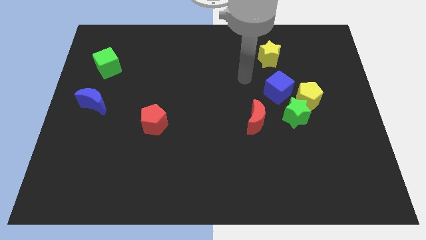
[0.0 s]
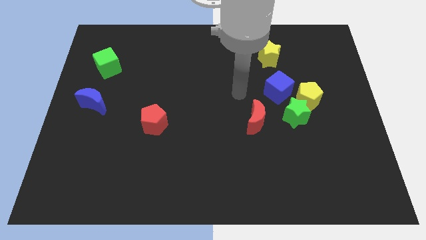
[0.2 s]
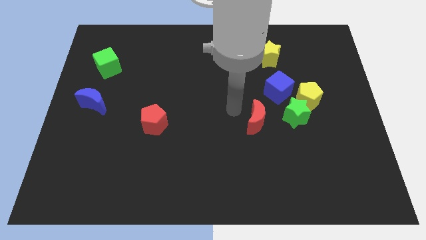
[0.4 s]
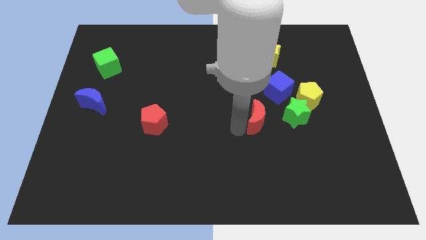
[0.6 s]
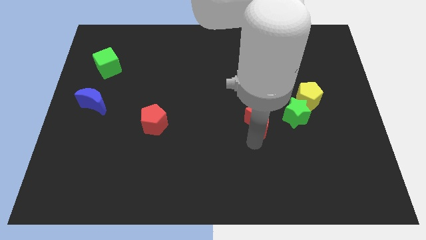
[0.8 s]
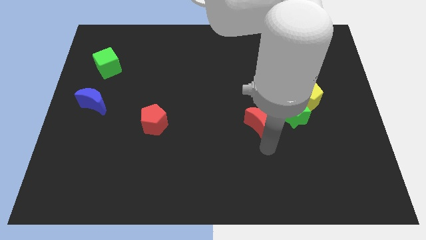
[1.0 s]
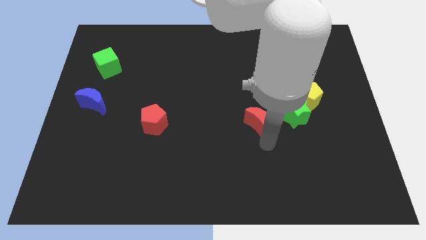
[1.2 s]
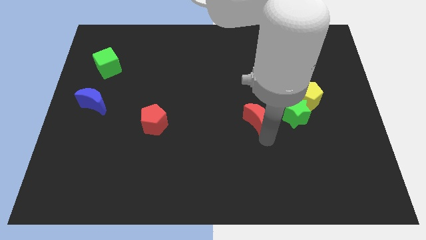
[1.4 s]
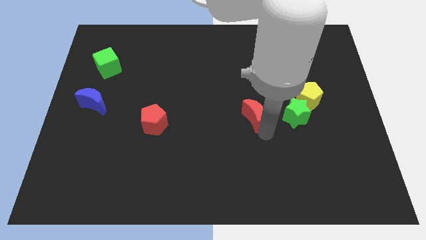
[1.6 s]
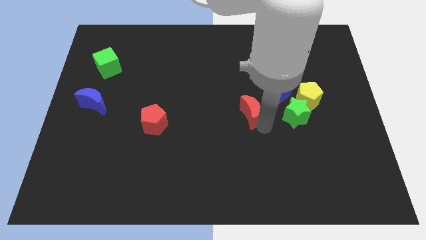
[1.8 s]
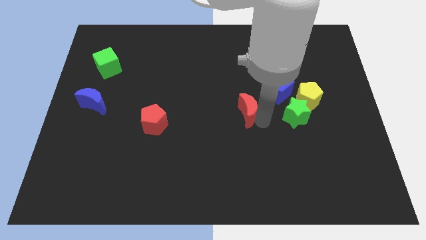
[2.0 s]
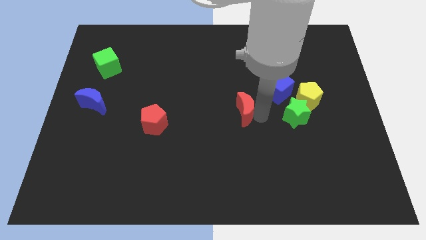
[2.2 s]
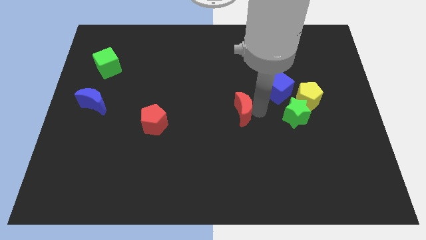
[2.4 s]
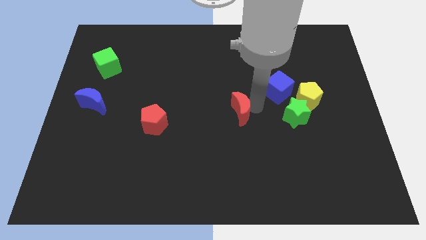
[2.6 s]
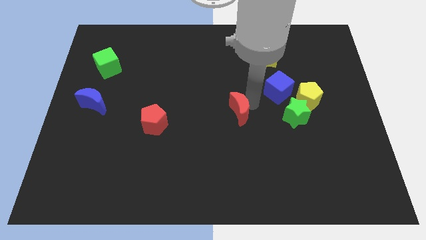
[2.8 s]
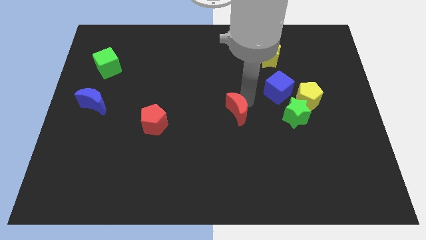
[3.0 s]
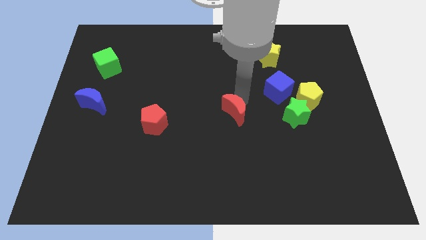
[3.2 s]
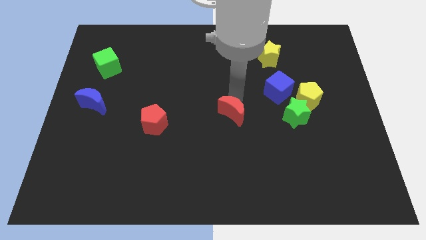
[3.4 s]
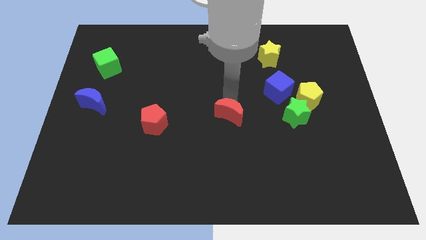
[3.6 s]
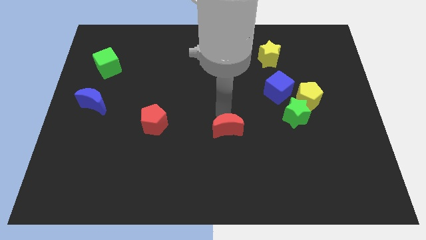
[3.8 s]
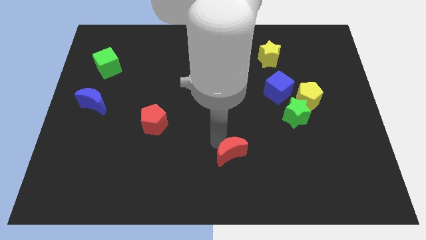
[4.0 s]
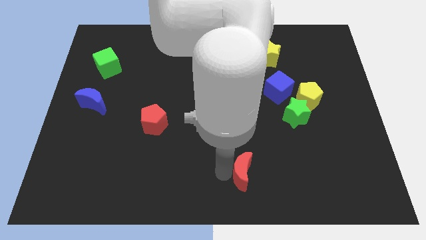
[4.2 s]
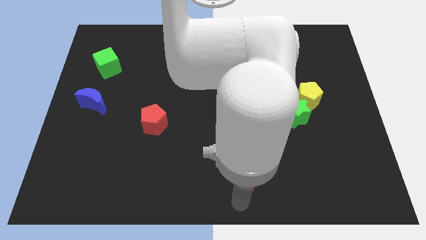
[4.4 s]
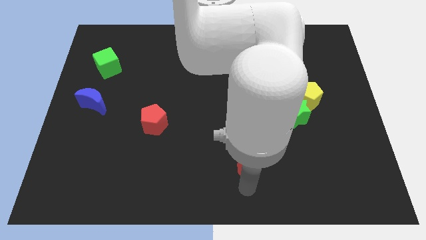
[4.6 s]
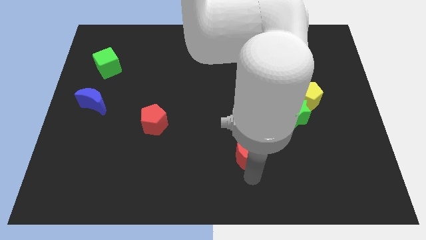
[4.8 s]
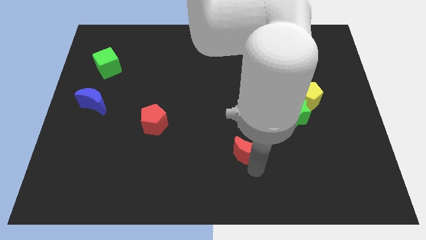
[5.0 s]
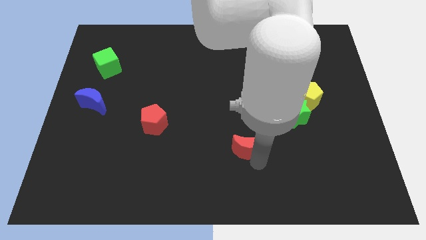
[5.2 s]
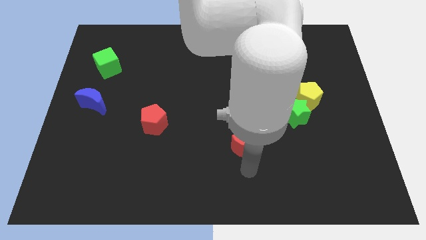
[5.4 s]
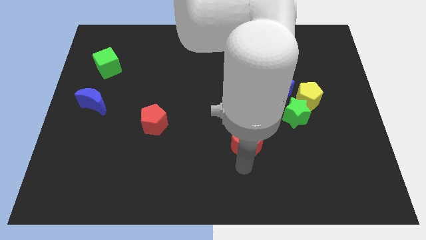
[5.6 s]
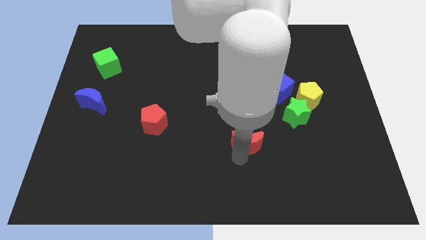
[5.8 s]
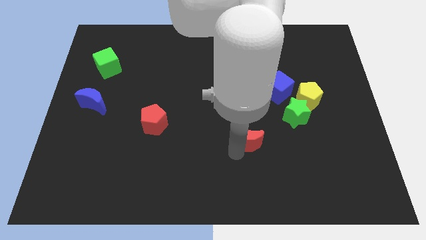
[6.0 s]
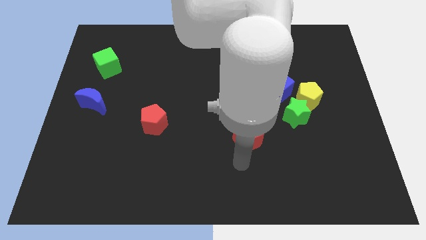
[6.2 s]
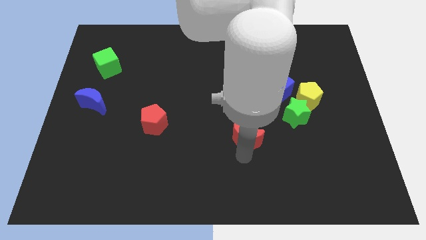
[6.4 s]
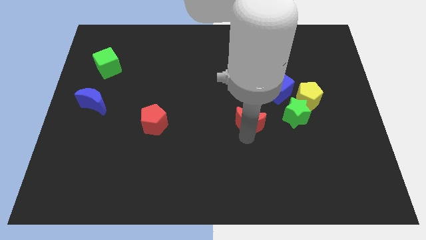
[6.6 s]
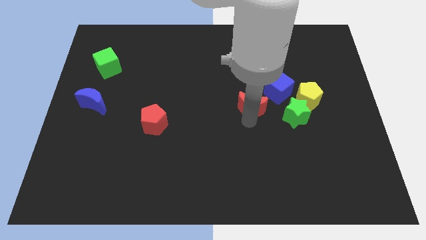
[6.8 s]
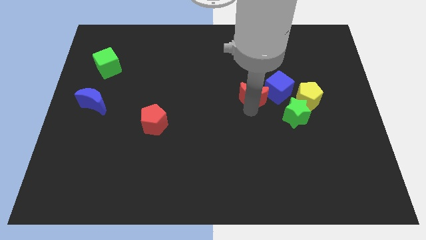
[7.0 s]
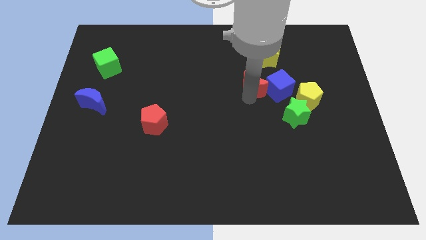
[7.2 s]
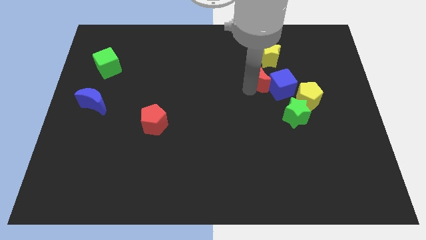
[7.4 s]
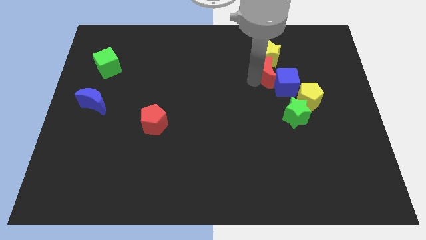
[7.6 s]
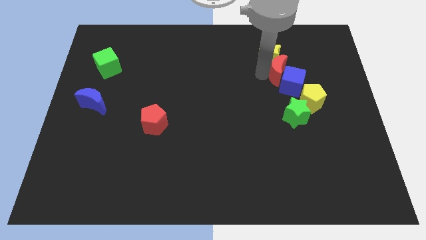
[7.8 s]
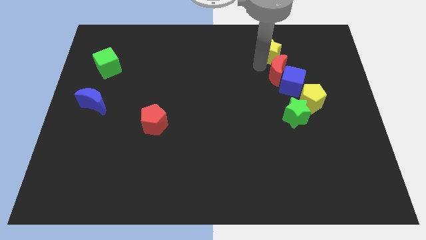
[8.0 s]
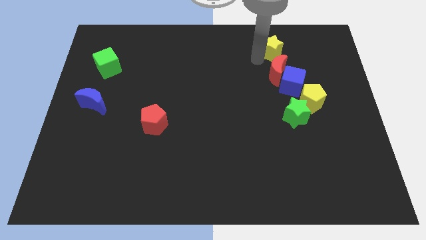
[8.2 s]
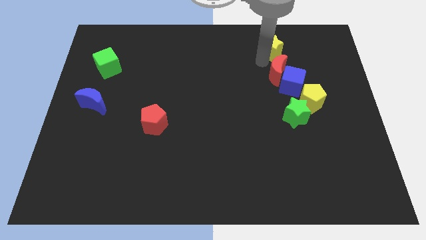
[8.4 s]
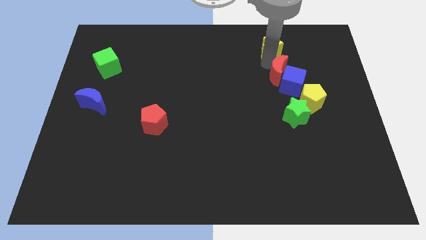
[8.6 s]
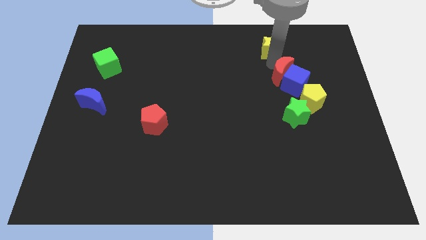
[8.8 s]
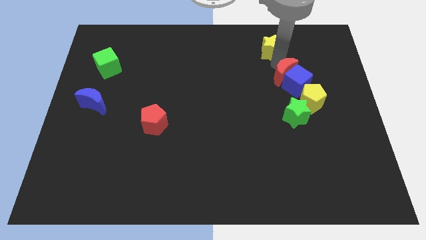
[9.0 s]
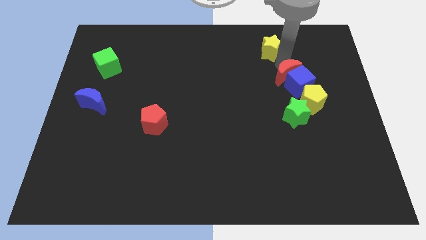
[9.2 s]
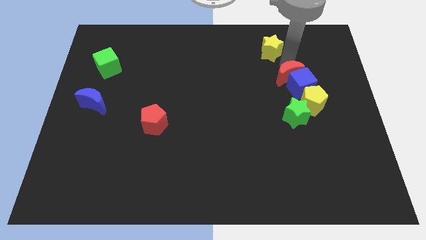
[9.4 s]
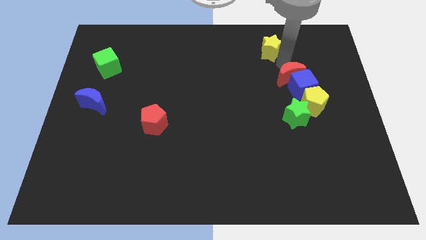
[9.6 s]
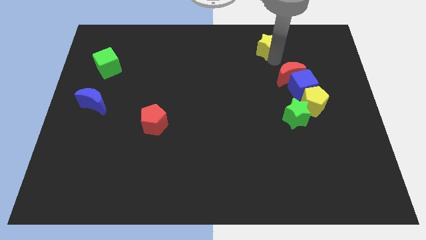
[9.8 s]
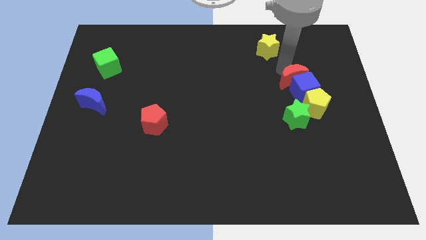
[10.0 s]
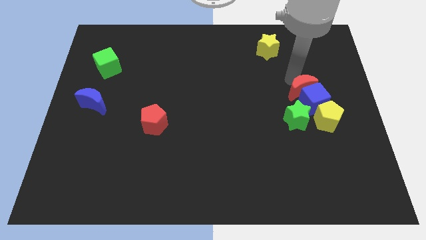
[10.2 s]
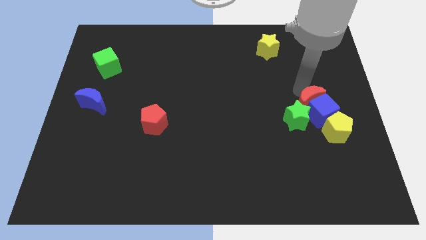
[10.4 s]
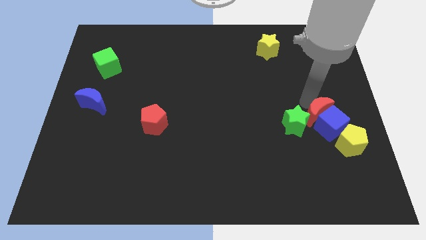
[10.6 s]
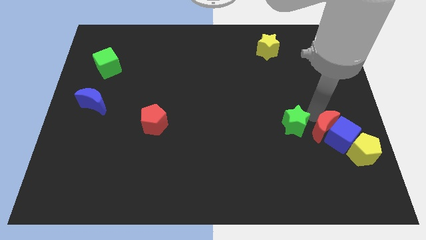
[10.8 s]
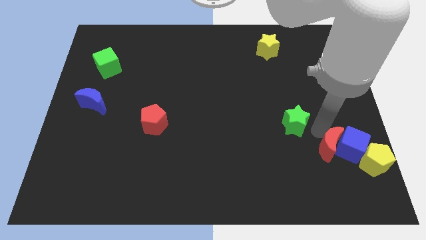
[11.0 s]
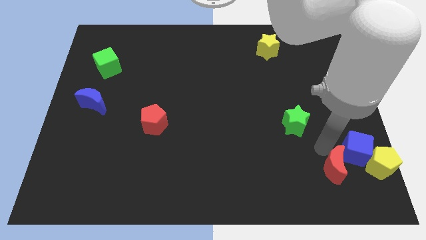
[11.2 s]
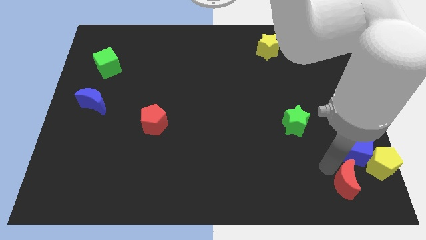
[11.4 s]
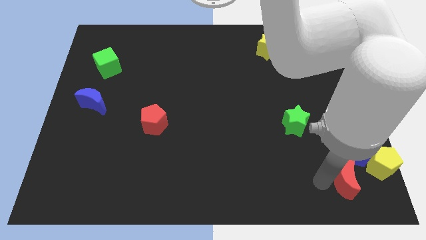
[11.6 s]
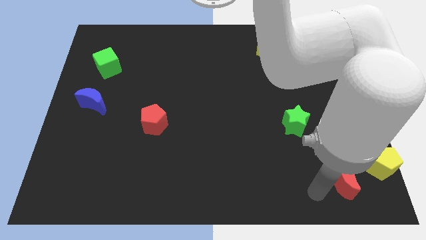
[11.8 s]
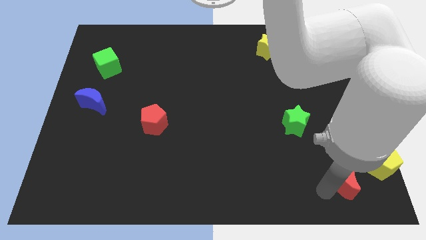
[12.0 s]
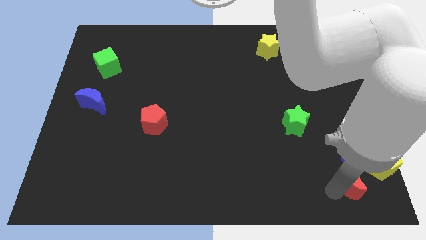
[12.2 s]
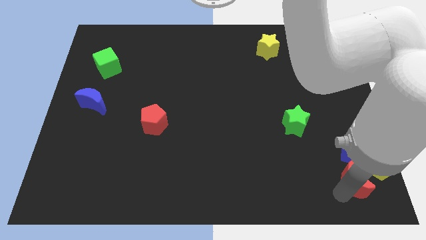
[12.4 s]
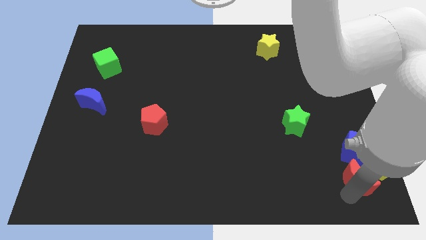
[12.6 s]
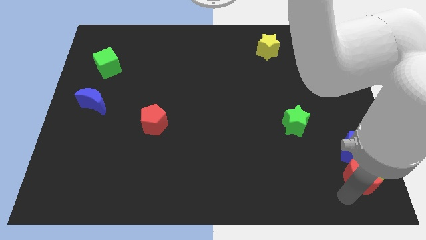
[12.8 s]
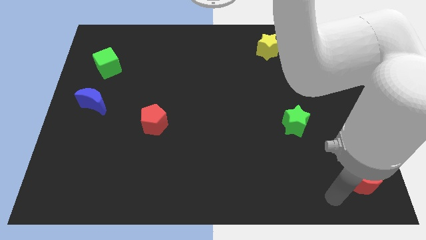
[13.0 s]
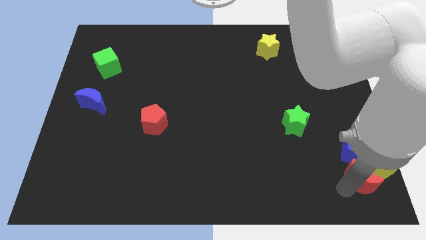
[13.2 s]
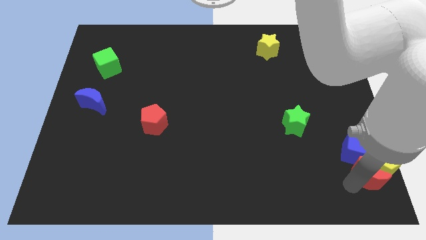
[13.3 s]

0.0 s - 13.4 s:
push the red moon close to the yellow pentagon
